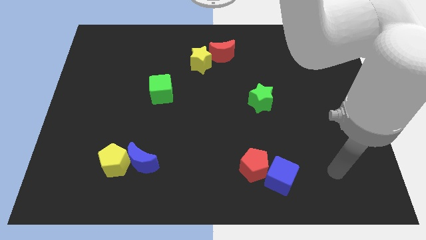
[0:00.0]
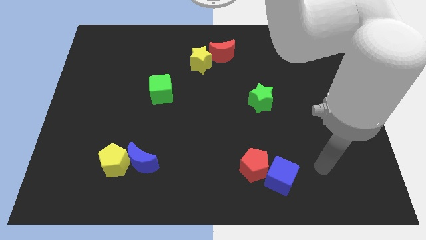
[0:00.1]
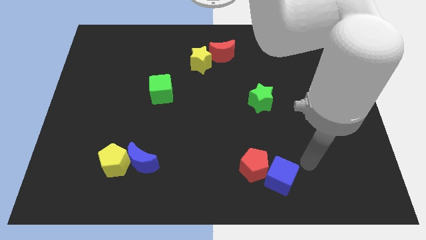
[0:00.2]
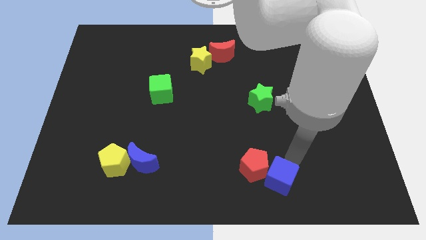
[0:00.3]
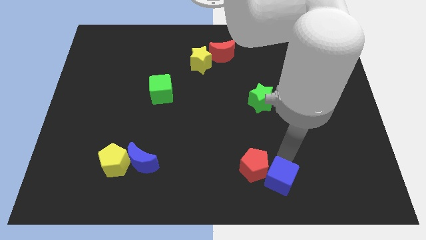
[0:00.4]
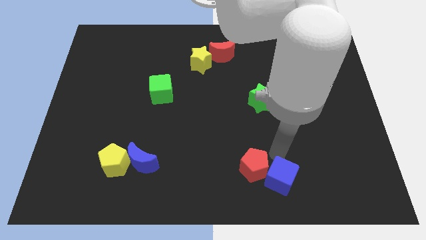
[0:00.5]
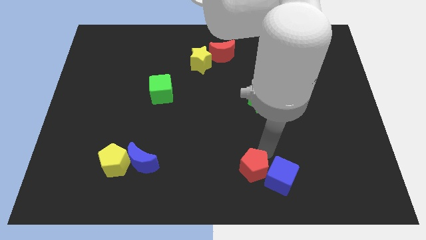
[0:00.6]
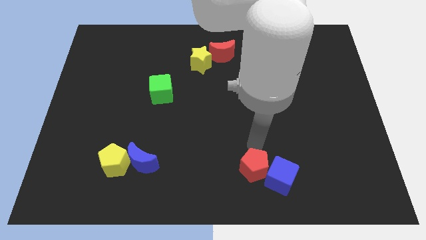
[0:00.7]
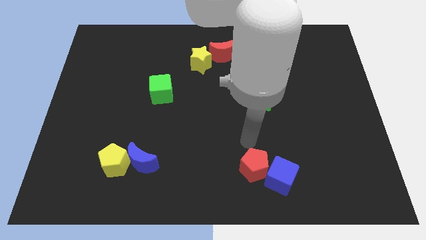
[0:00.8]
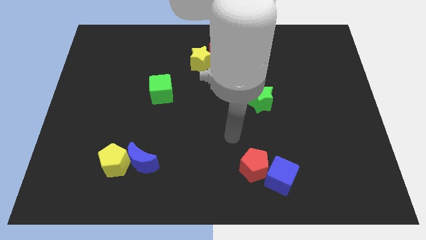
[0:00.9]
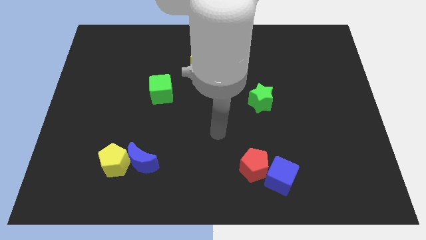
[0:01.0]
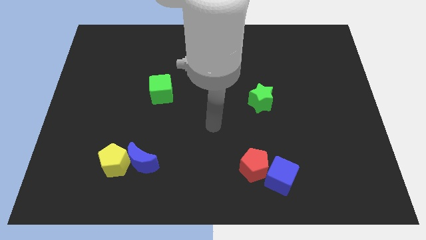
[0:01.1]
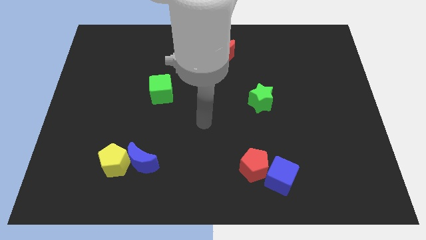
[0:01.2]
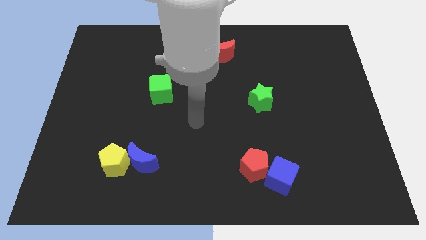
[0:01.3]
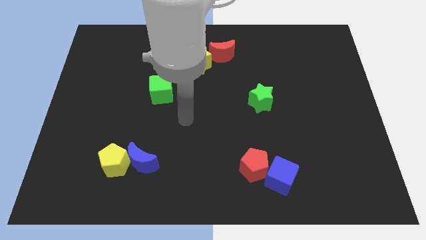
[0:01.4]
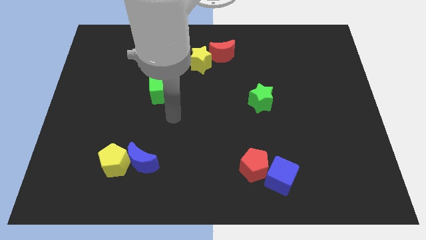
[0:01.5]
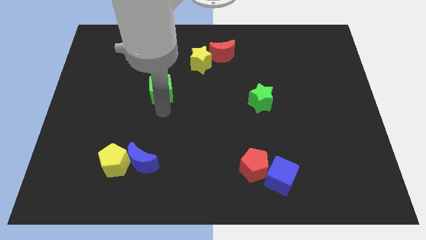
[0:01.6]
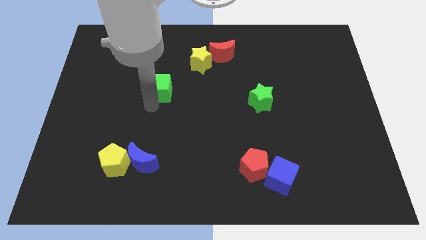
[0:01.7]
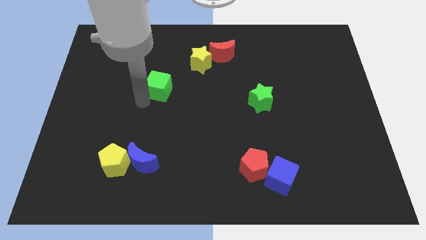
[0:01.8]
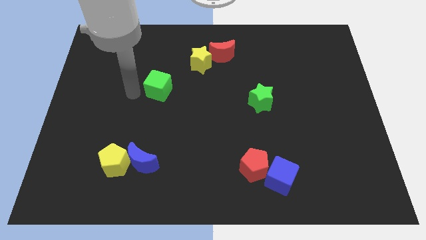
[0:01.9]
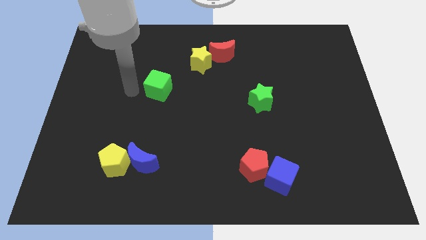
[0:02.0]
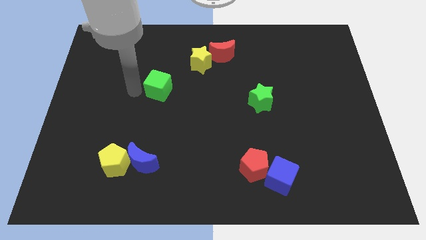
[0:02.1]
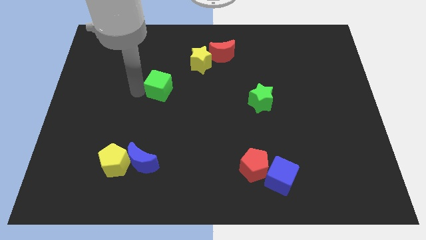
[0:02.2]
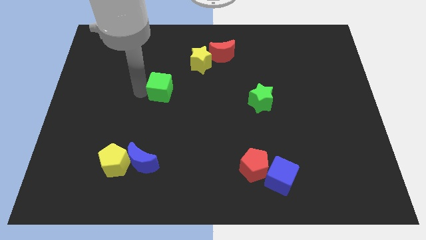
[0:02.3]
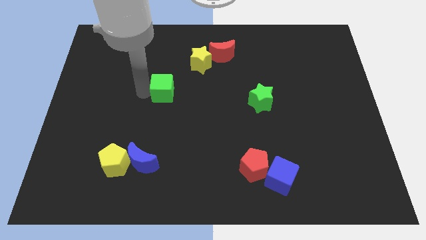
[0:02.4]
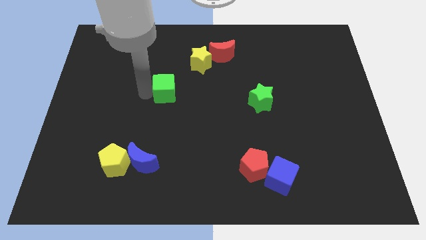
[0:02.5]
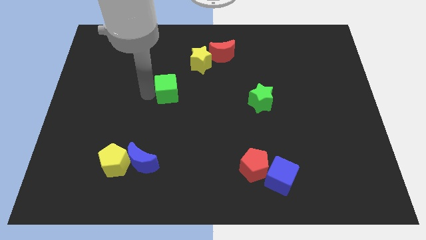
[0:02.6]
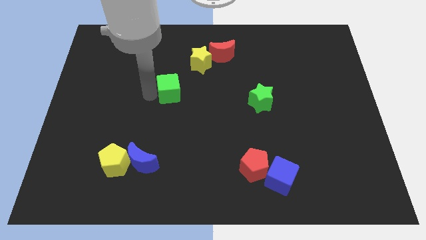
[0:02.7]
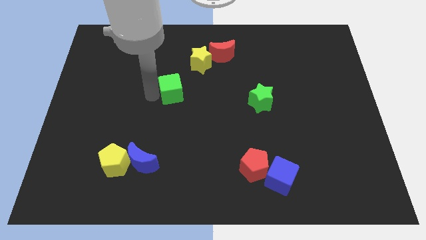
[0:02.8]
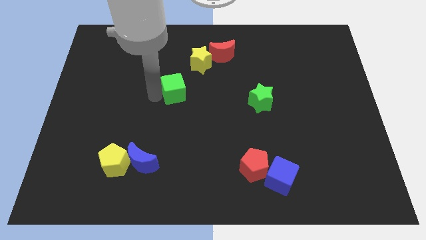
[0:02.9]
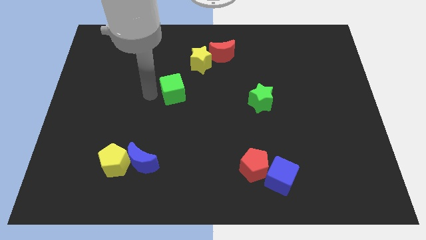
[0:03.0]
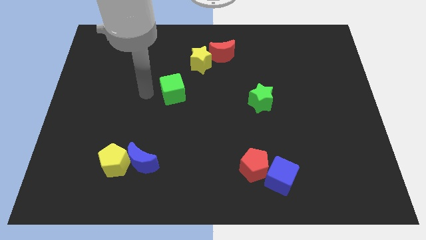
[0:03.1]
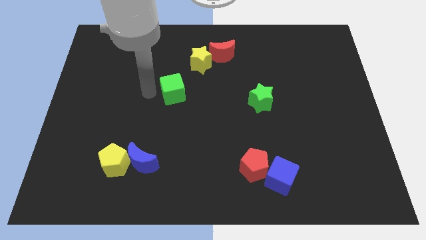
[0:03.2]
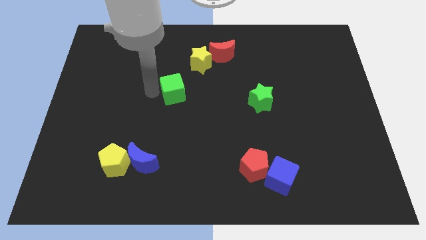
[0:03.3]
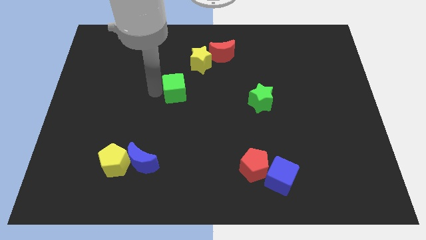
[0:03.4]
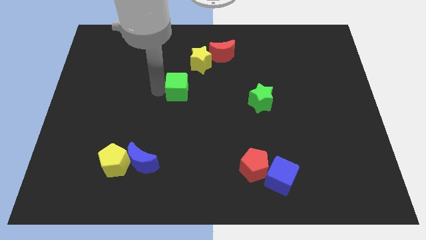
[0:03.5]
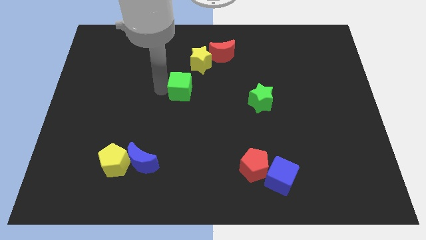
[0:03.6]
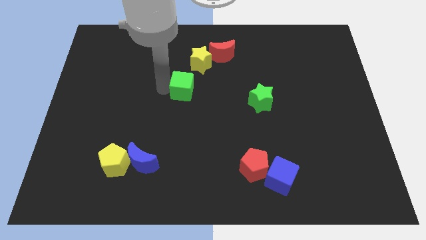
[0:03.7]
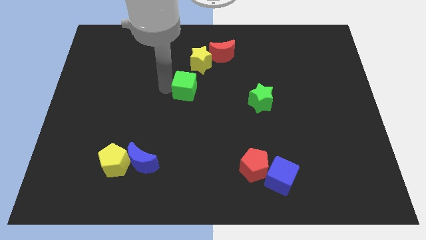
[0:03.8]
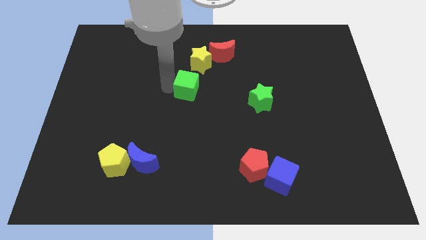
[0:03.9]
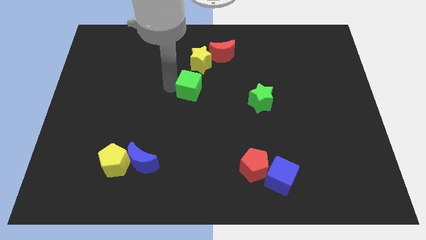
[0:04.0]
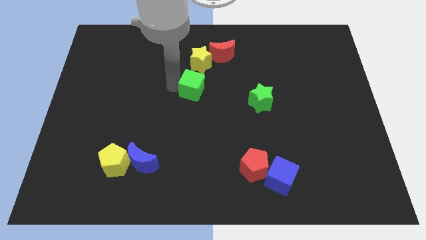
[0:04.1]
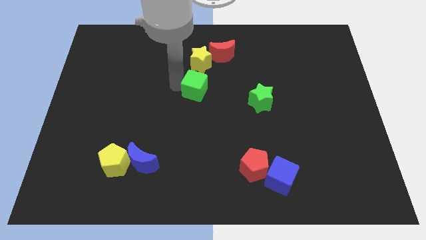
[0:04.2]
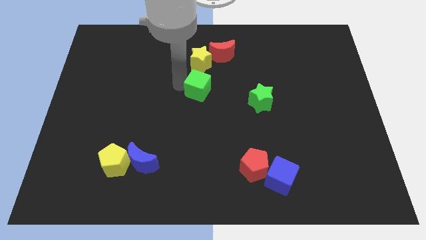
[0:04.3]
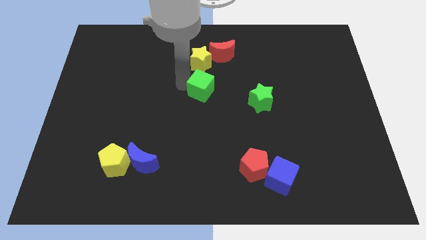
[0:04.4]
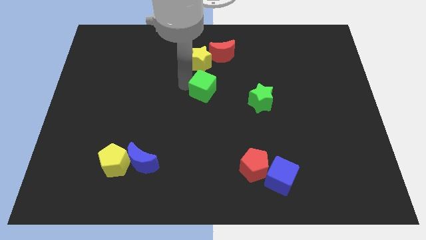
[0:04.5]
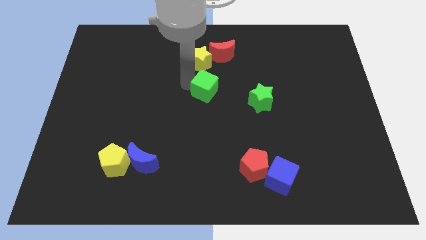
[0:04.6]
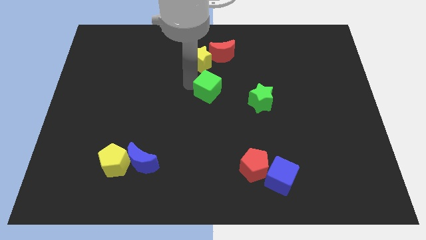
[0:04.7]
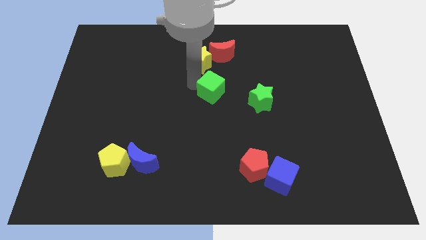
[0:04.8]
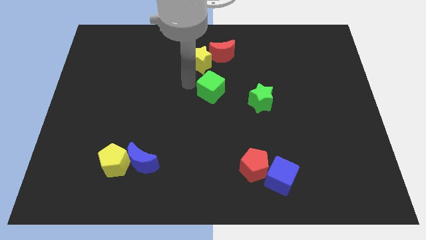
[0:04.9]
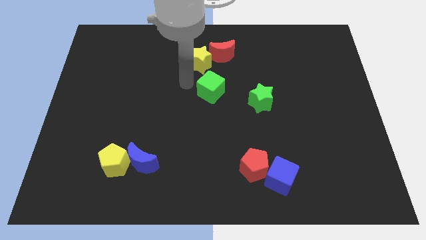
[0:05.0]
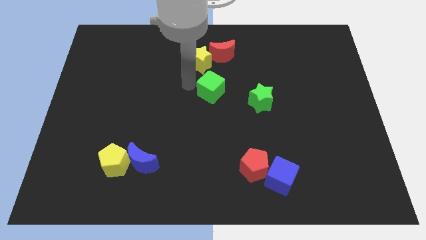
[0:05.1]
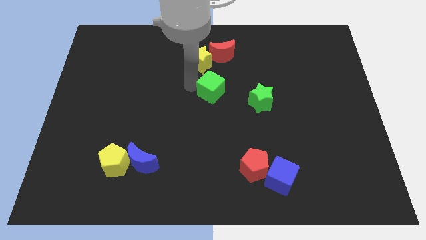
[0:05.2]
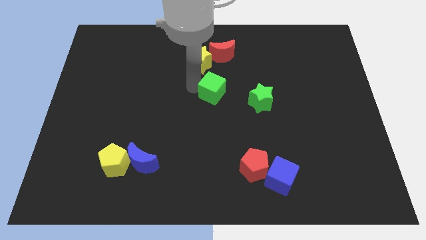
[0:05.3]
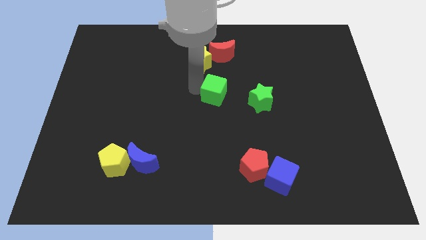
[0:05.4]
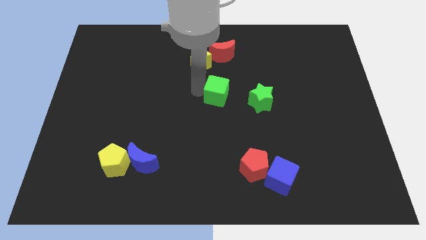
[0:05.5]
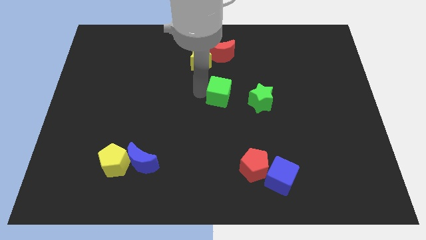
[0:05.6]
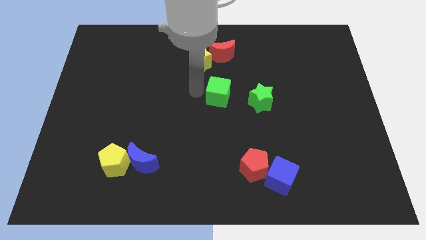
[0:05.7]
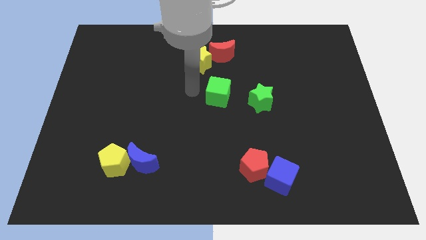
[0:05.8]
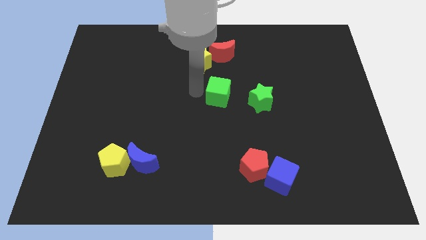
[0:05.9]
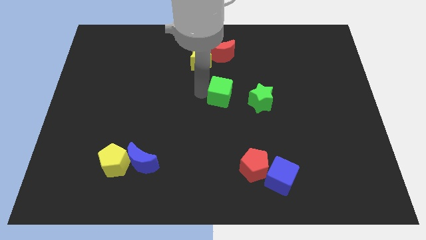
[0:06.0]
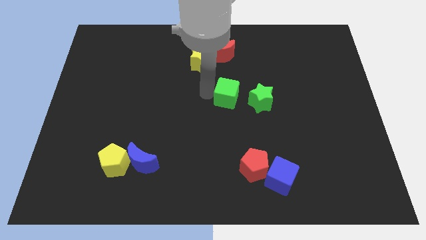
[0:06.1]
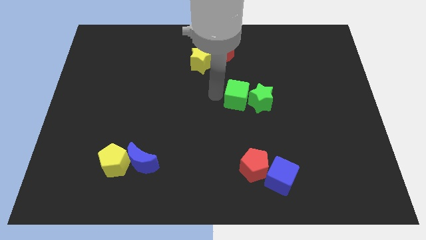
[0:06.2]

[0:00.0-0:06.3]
push the green cube close to the green star

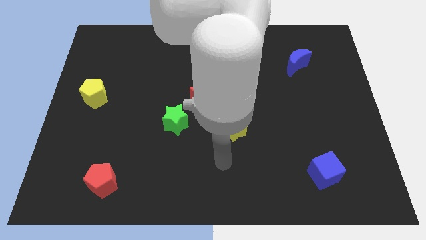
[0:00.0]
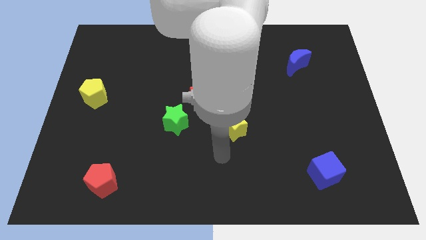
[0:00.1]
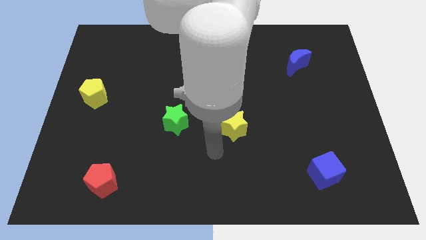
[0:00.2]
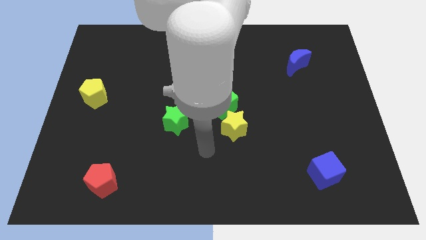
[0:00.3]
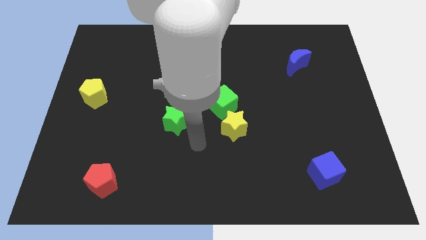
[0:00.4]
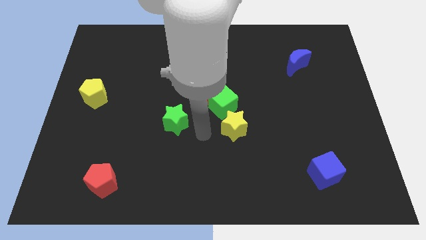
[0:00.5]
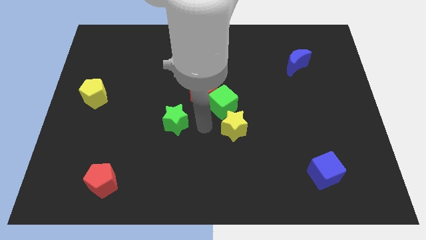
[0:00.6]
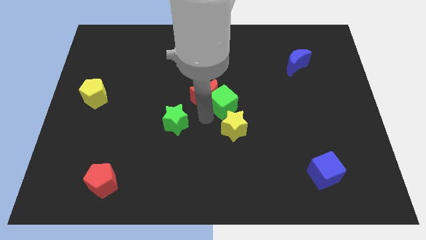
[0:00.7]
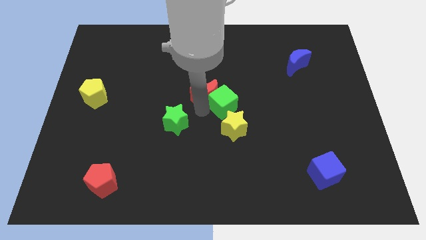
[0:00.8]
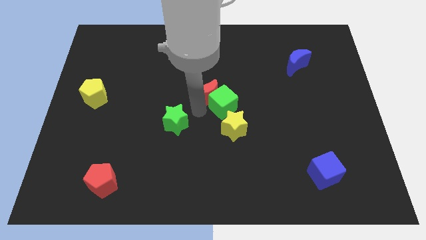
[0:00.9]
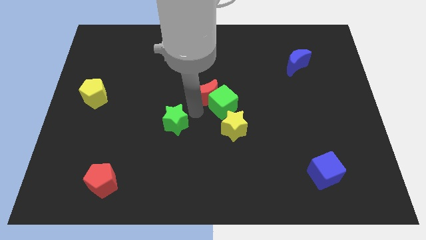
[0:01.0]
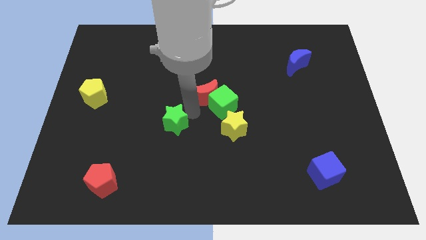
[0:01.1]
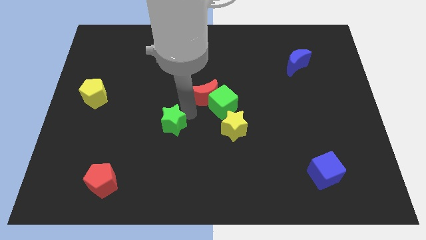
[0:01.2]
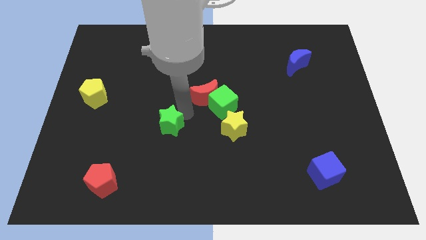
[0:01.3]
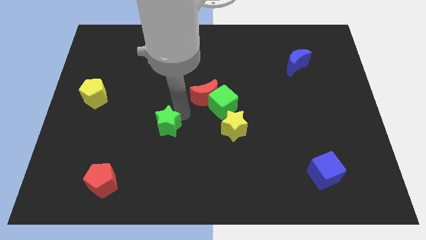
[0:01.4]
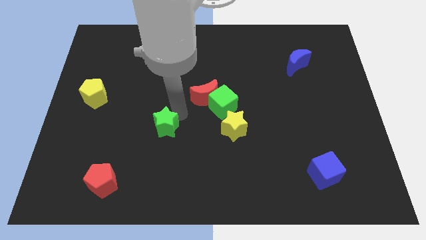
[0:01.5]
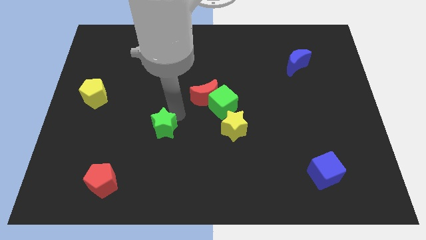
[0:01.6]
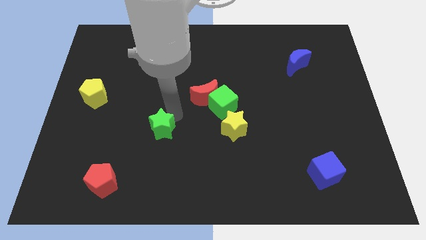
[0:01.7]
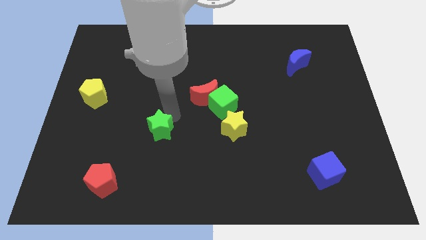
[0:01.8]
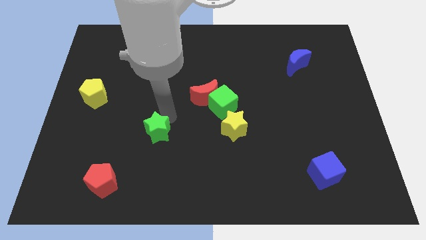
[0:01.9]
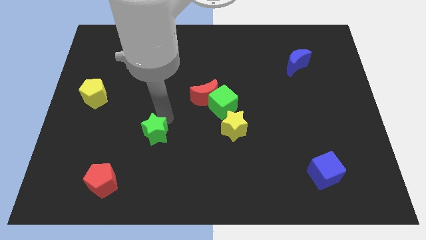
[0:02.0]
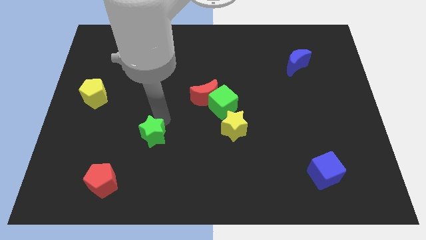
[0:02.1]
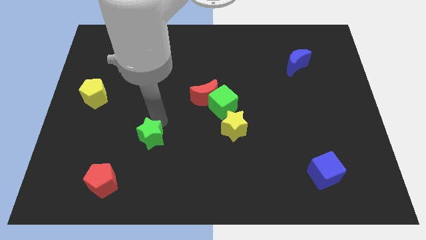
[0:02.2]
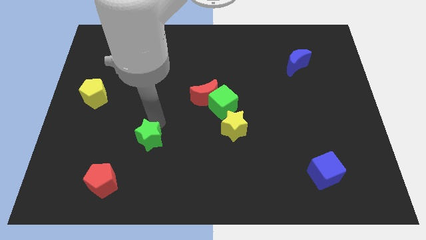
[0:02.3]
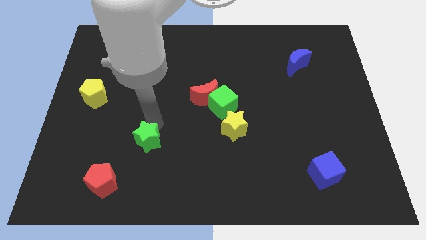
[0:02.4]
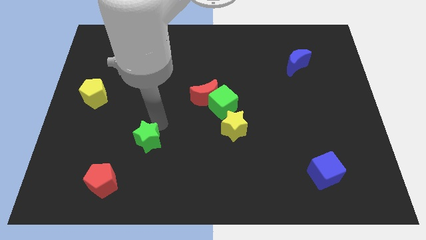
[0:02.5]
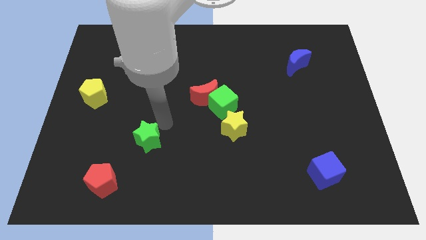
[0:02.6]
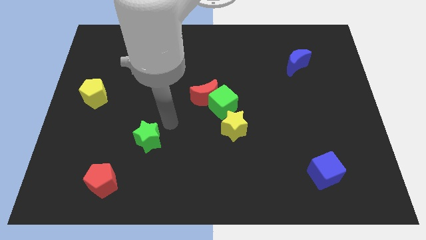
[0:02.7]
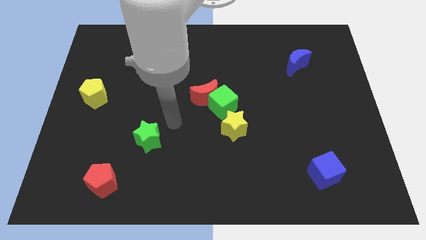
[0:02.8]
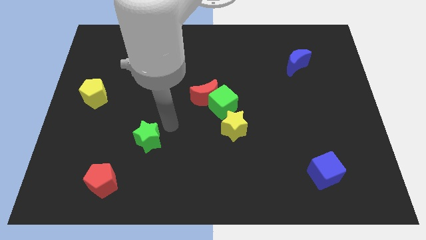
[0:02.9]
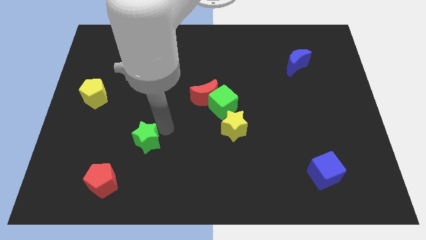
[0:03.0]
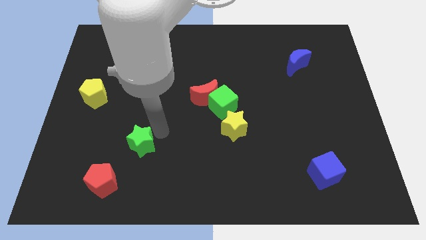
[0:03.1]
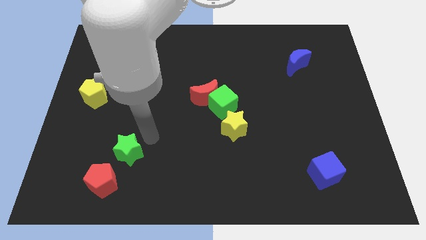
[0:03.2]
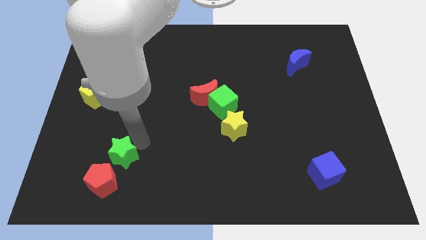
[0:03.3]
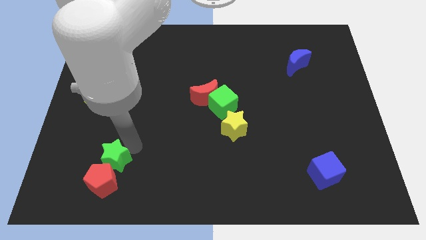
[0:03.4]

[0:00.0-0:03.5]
move the green star to the red pentagon
